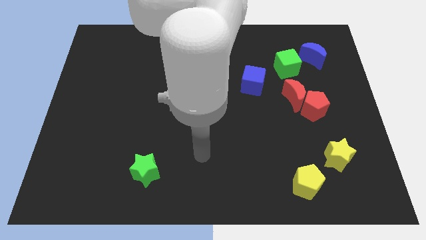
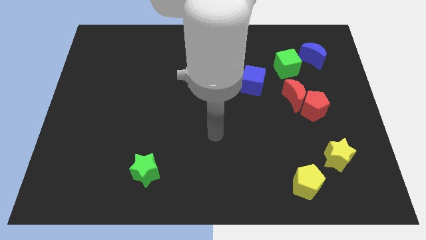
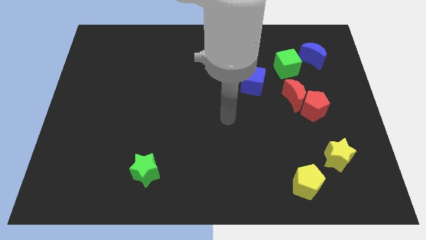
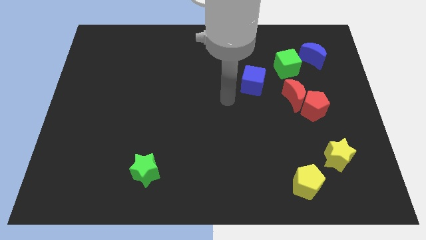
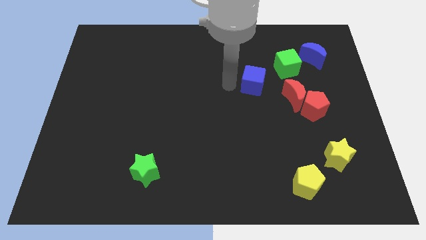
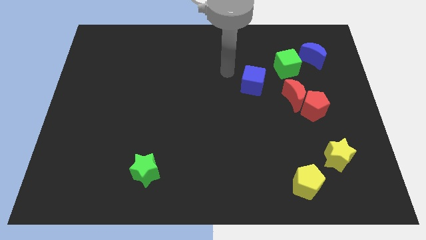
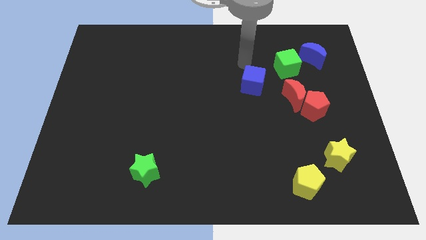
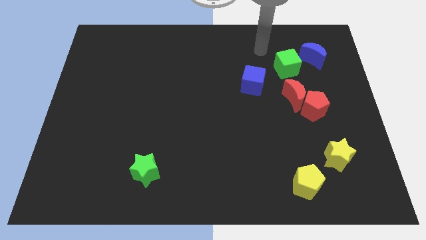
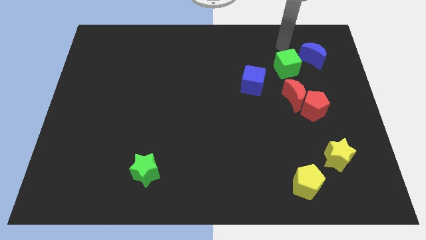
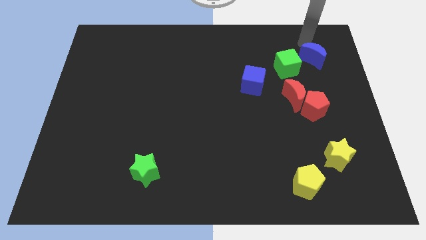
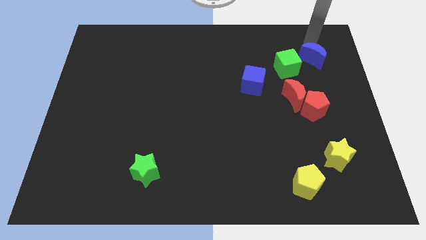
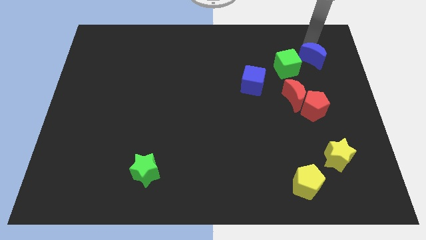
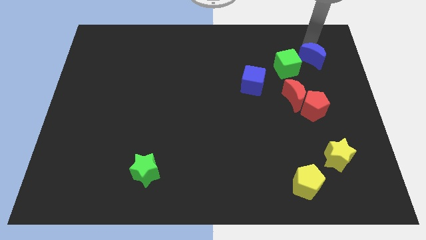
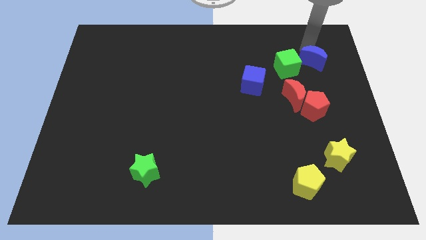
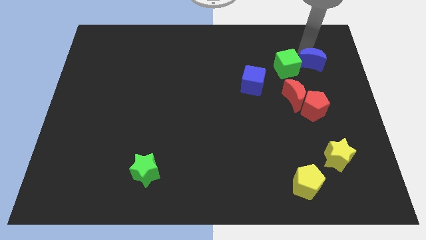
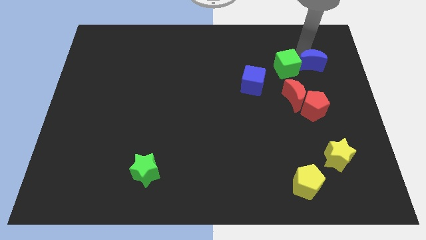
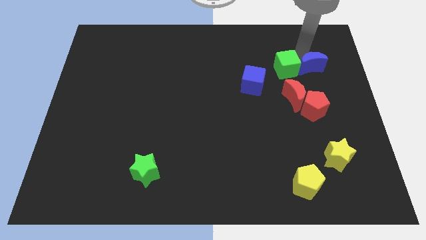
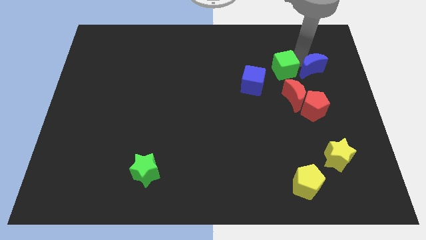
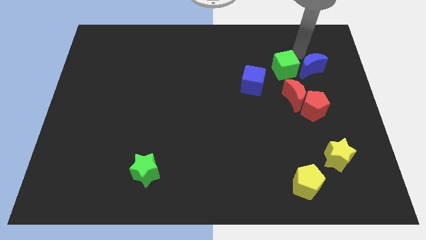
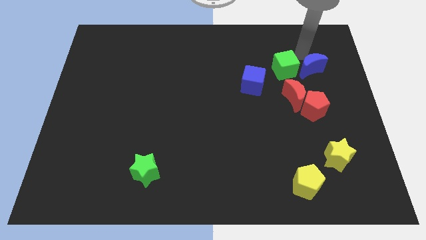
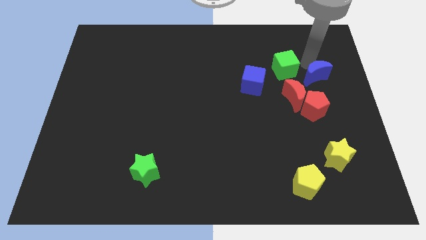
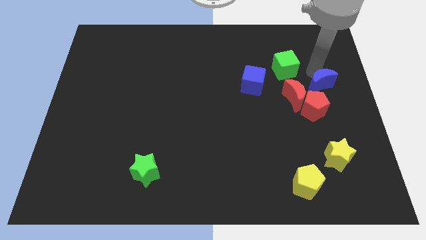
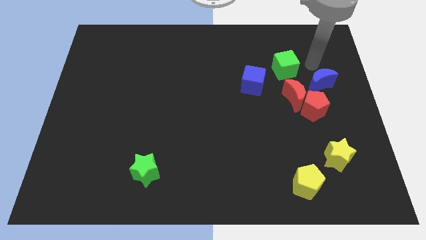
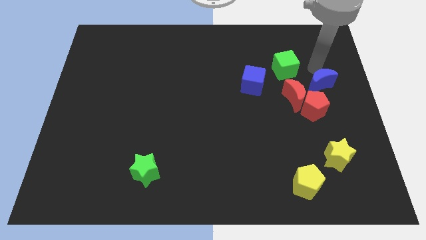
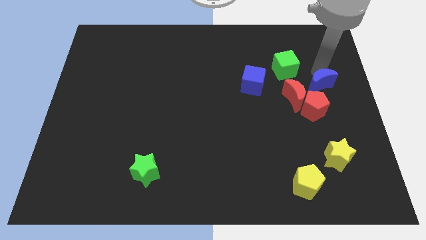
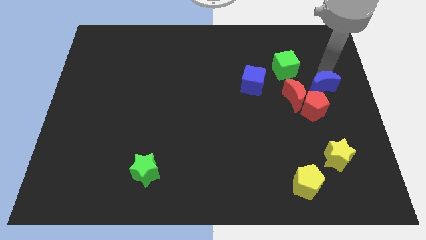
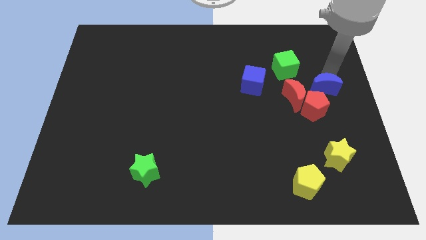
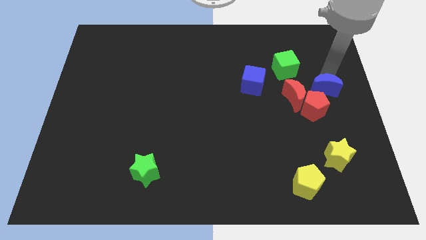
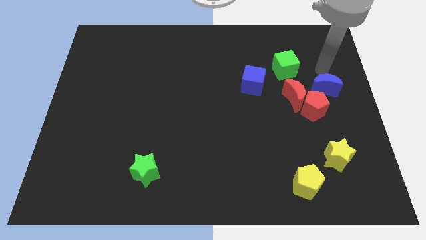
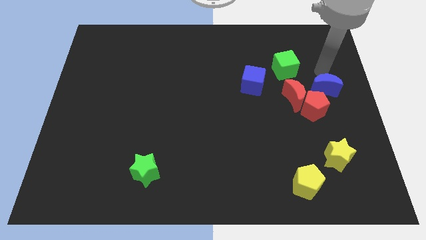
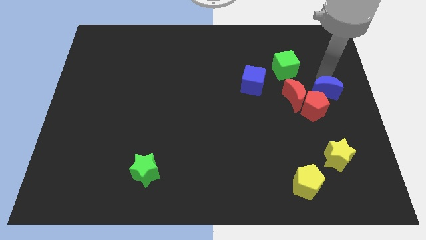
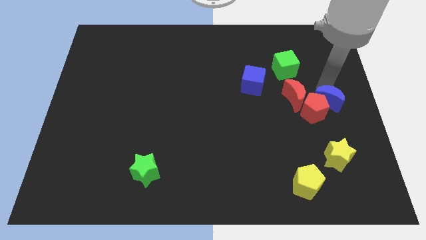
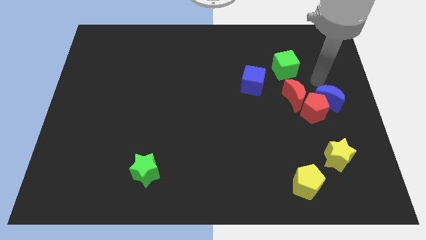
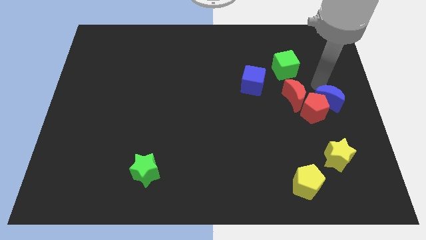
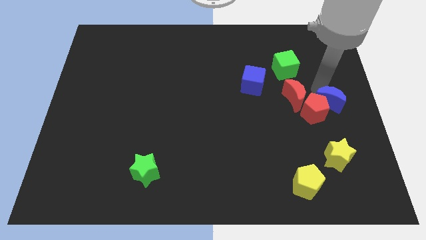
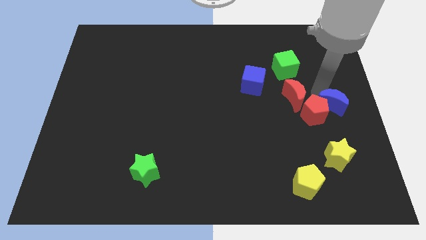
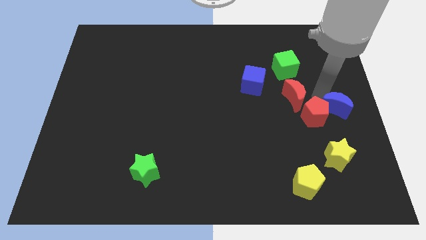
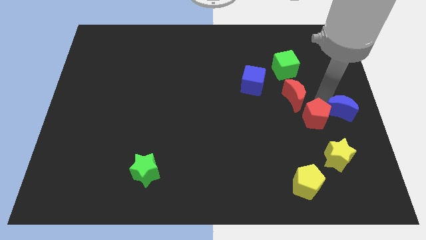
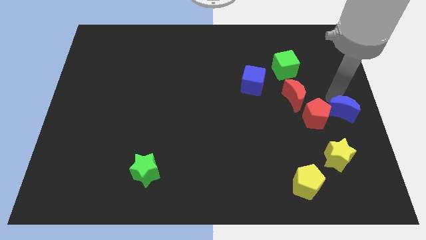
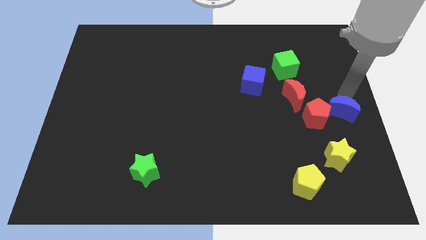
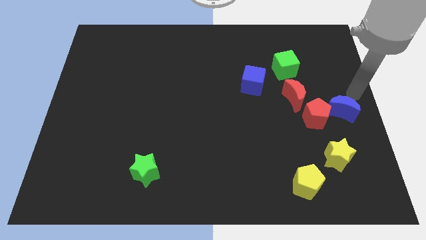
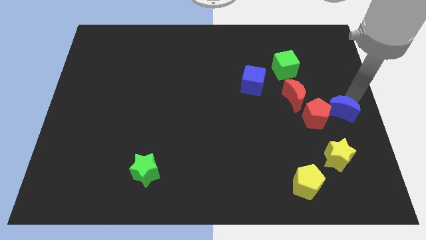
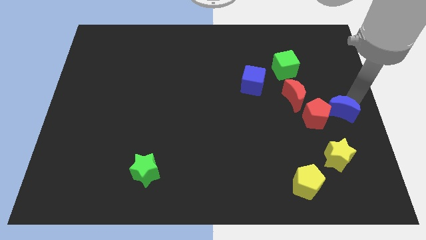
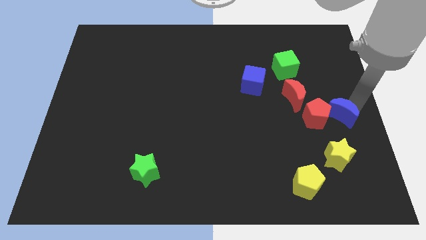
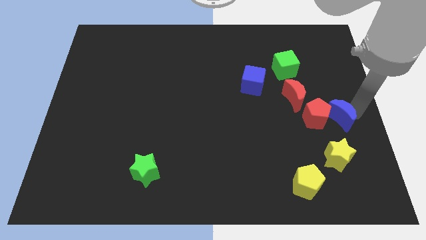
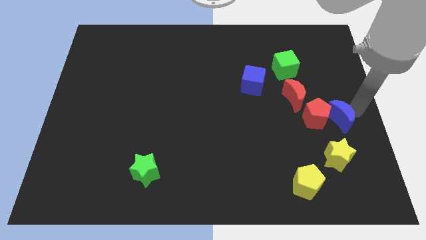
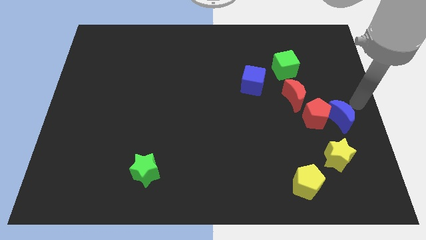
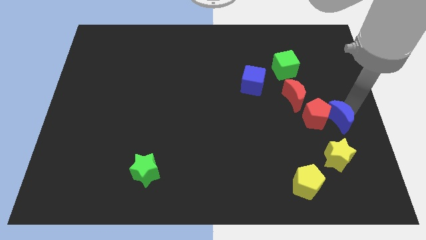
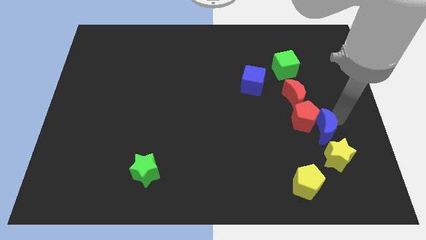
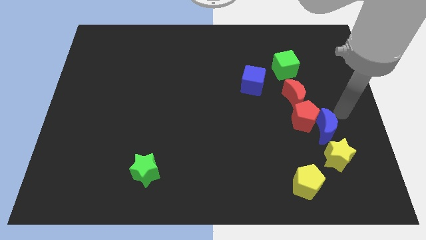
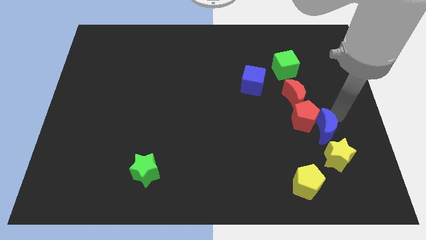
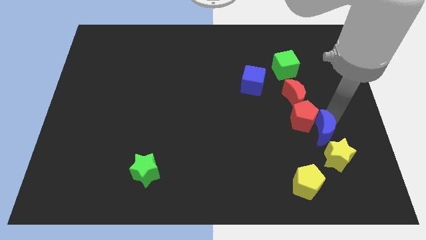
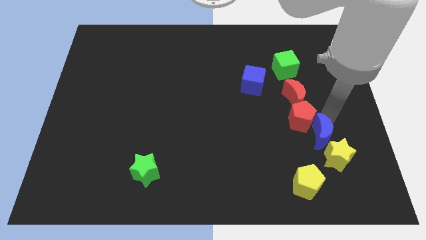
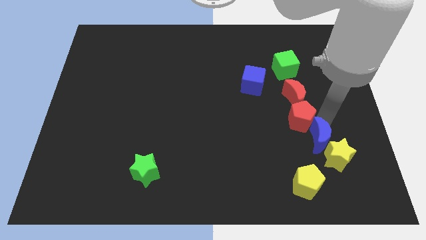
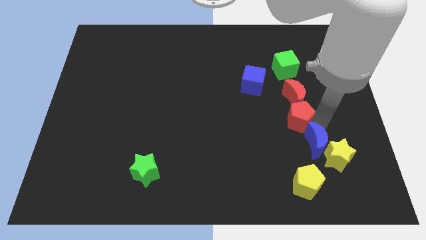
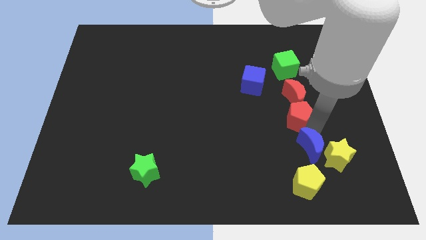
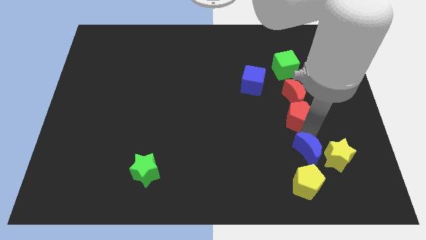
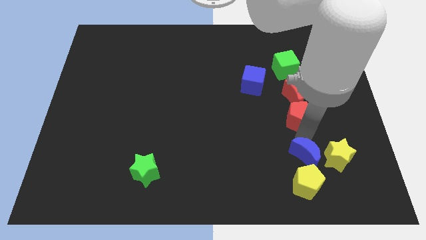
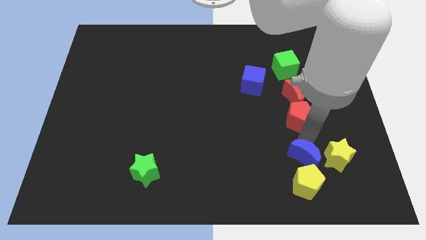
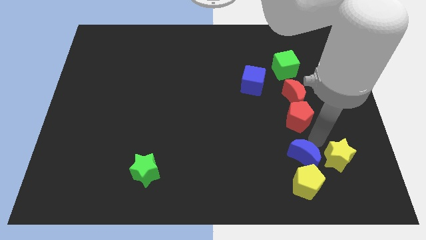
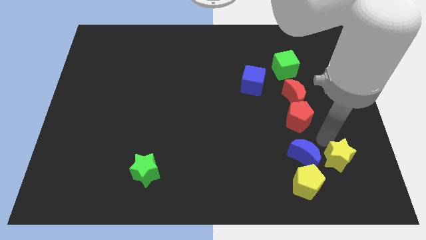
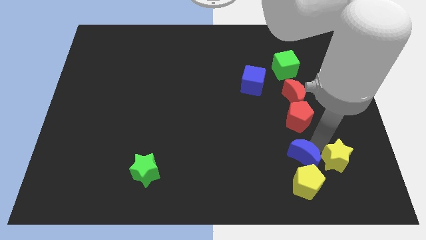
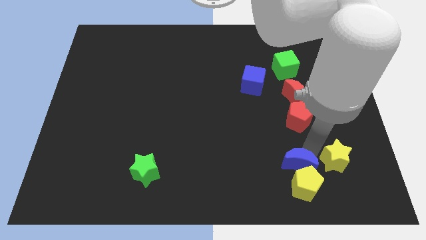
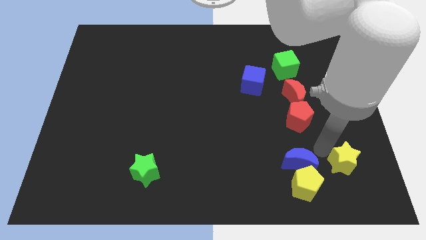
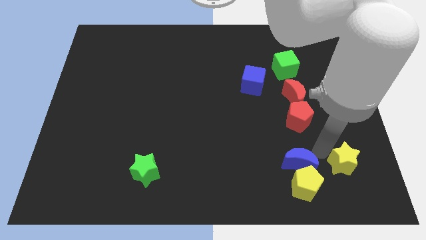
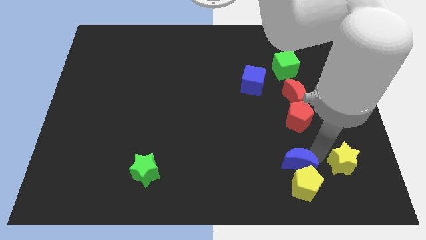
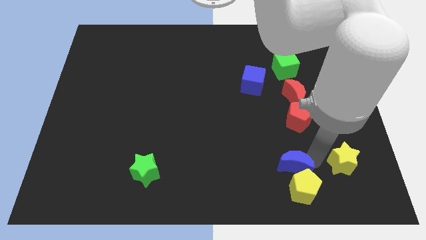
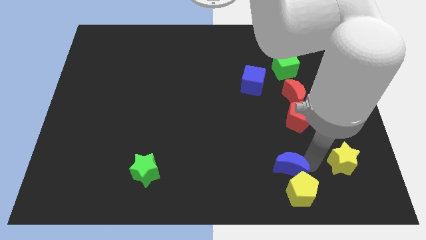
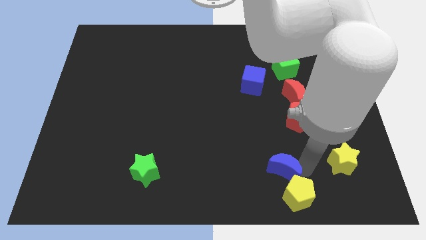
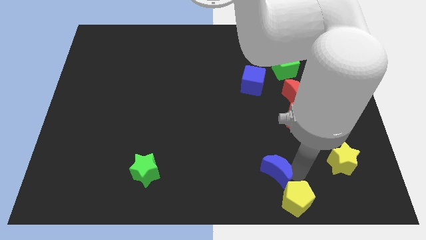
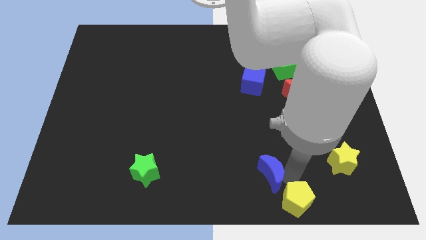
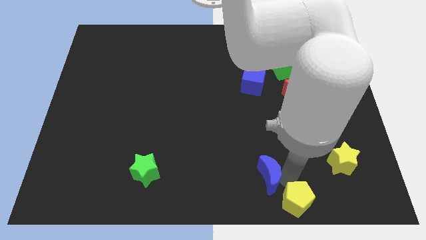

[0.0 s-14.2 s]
push the blue moon to the bottom side
